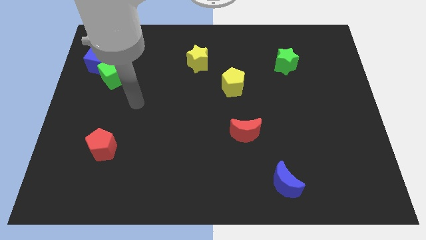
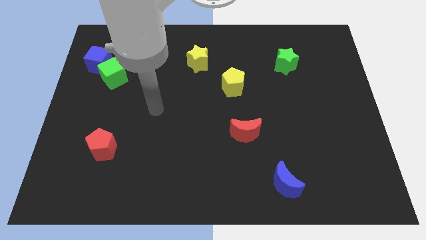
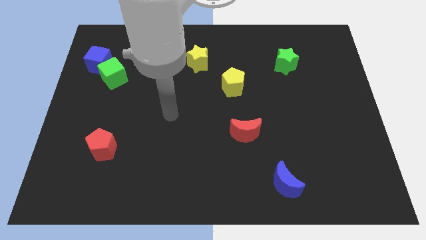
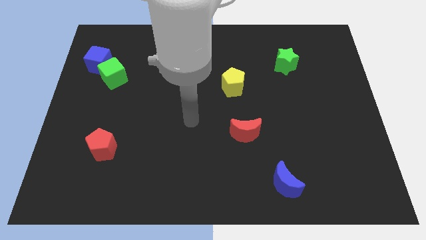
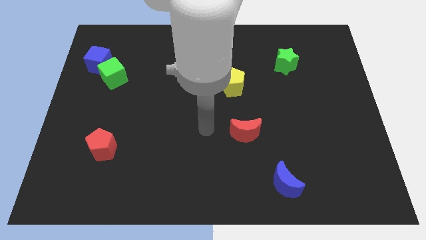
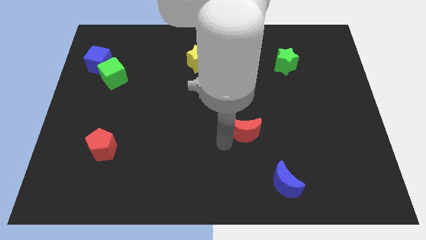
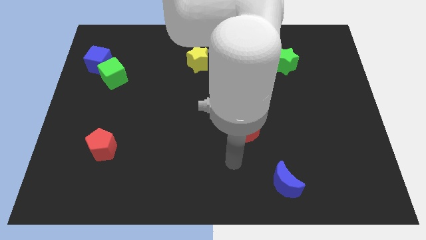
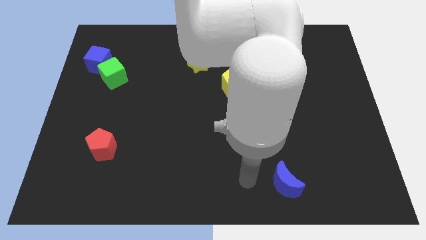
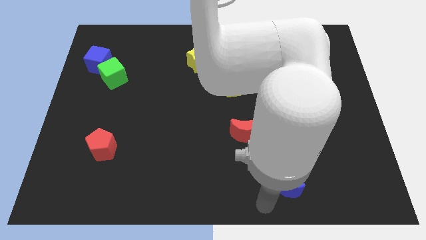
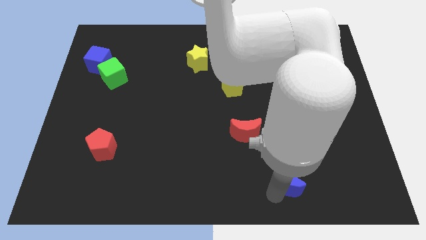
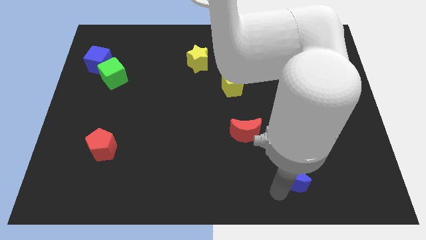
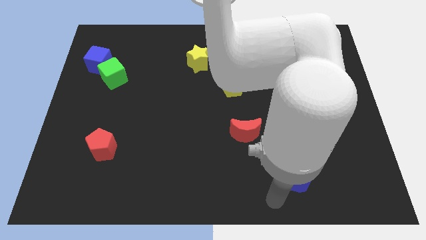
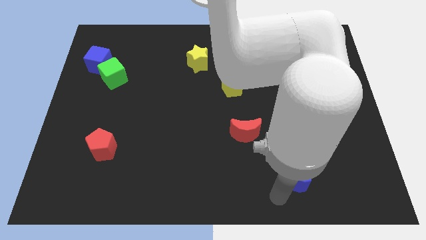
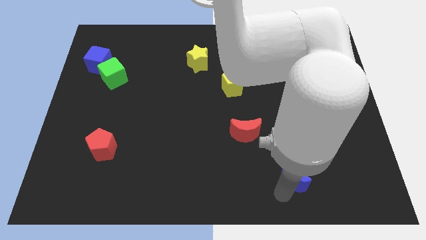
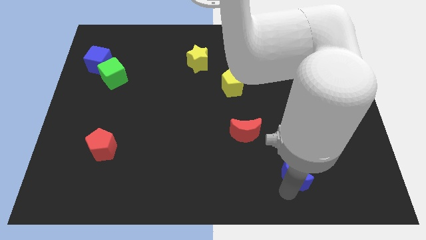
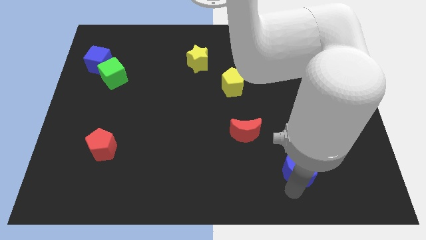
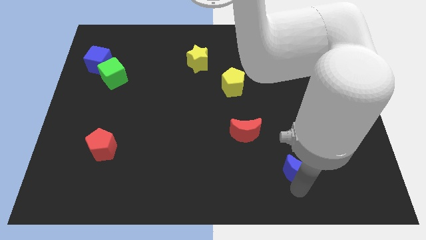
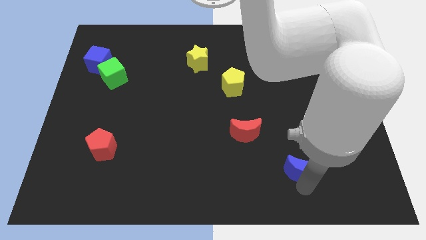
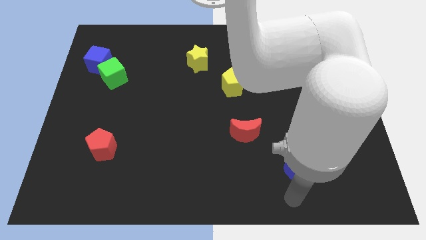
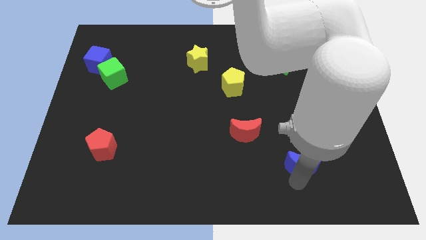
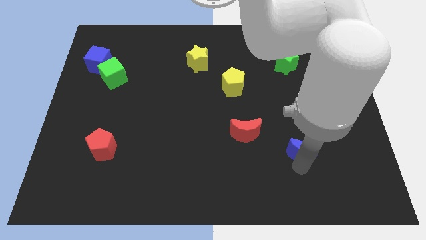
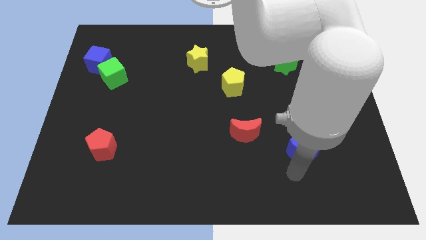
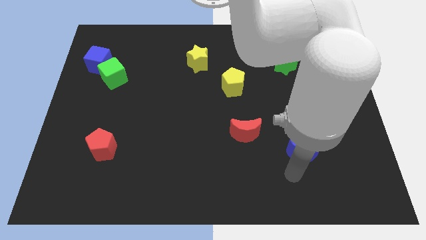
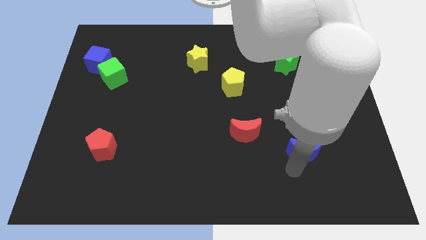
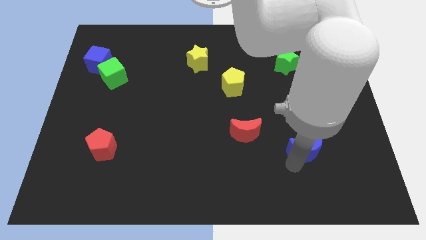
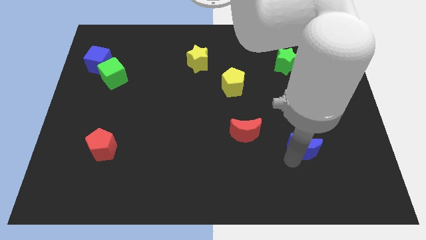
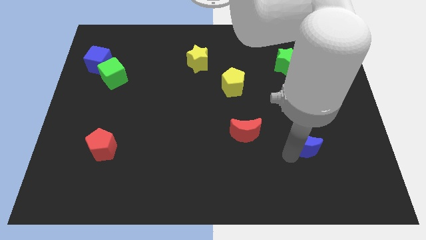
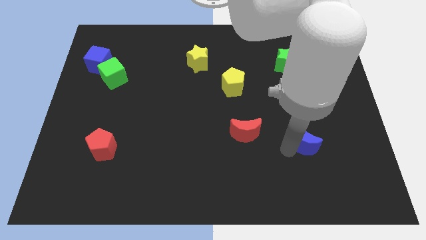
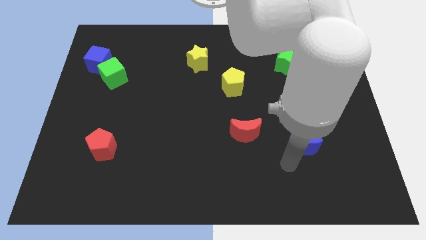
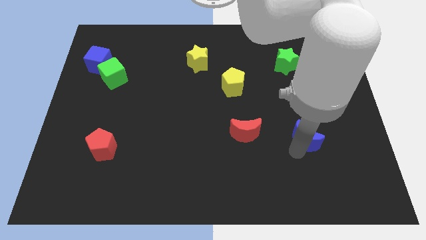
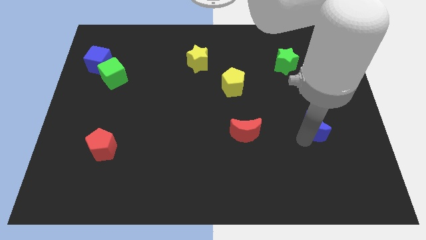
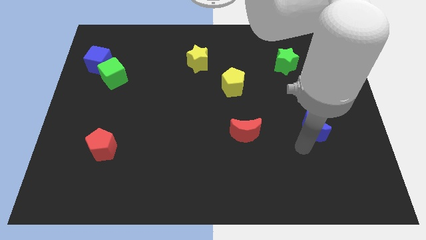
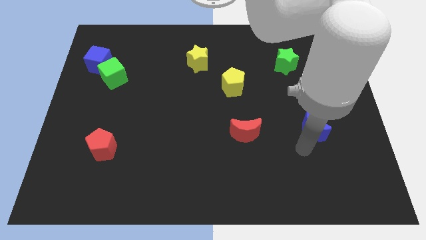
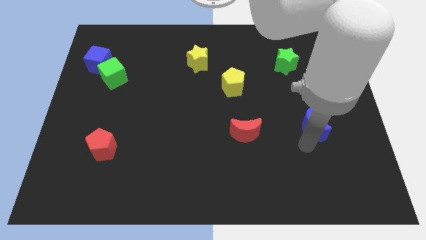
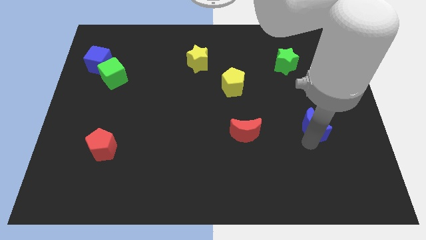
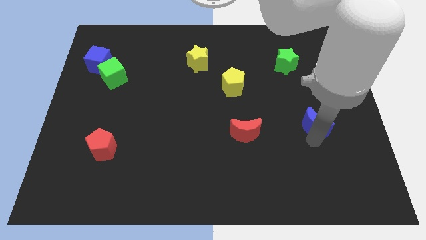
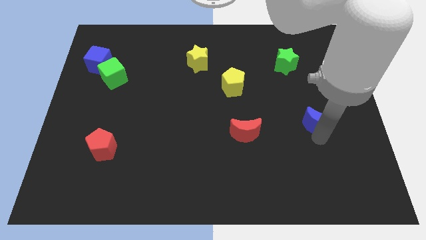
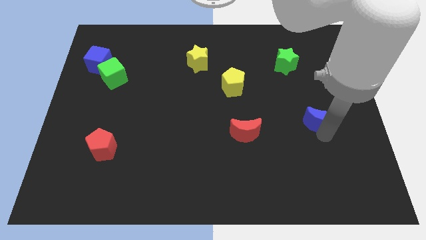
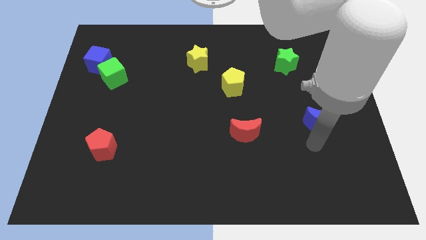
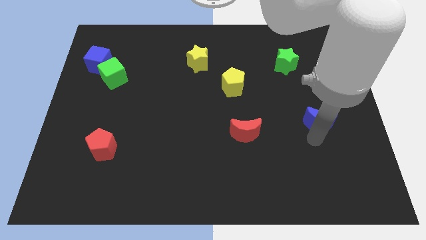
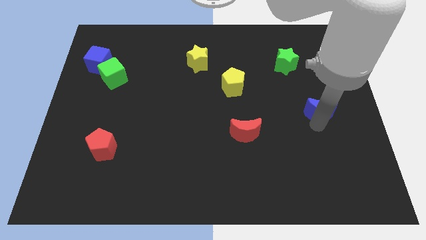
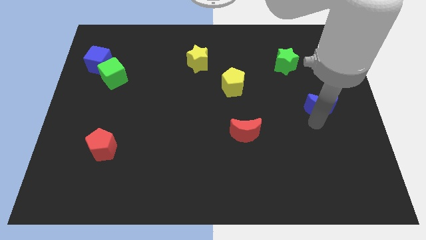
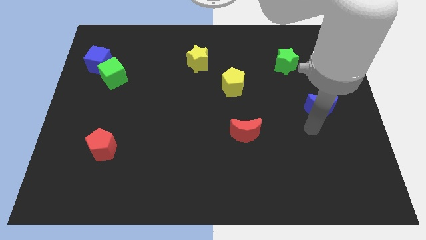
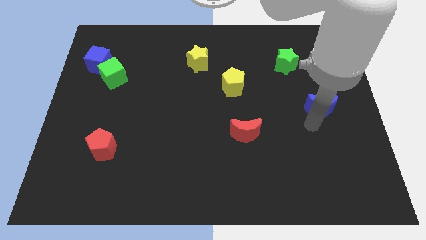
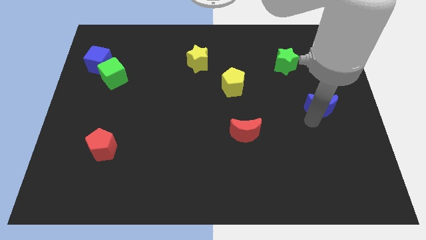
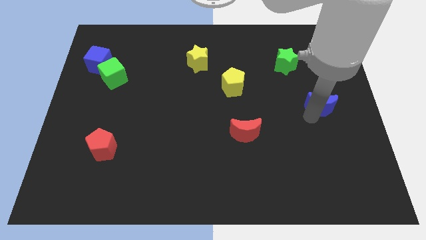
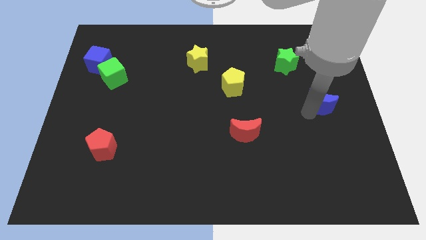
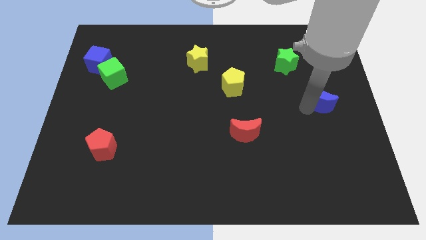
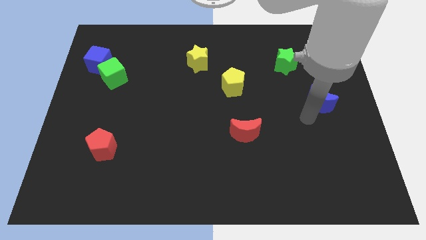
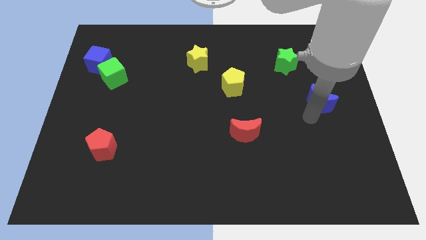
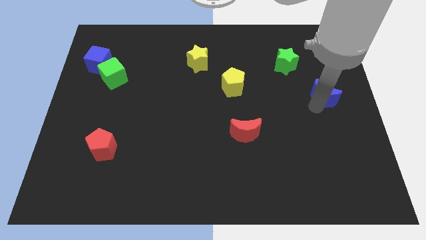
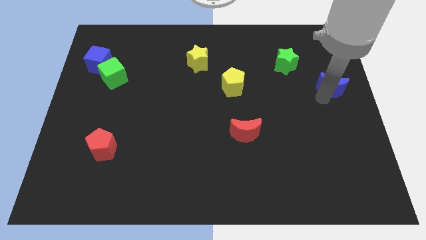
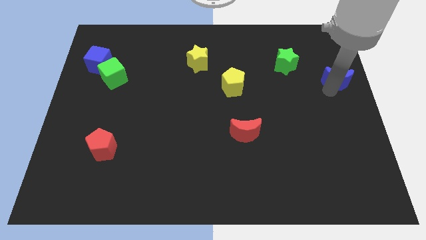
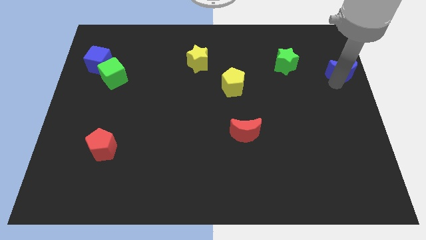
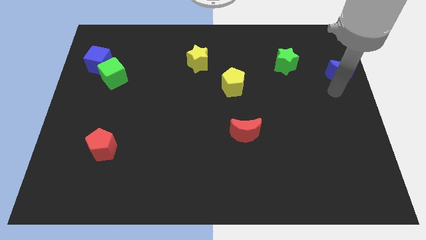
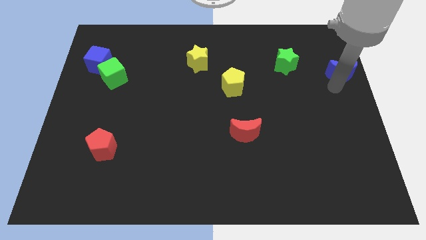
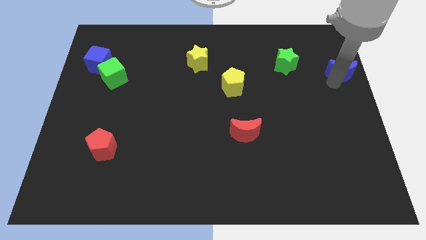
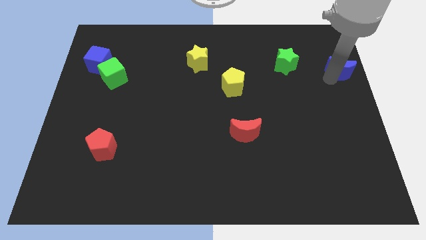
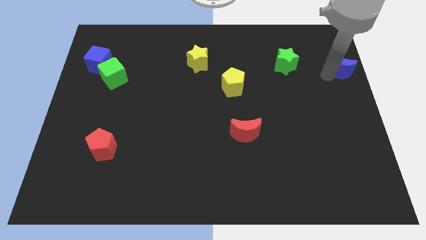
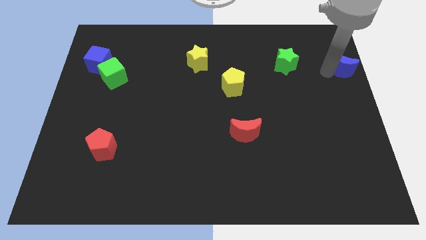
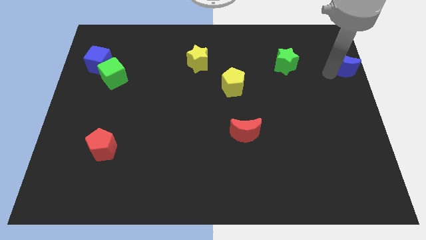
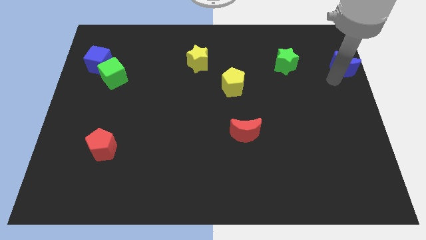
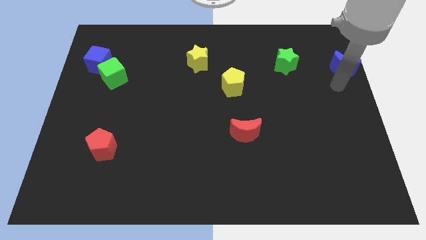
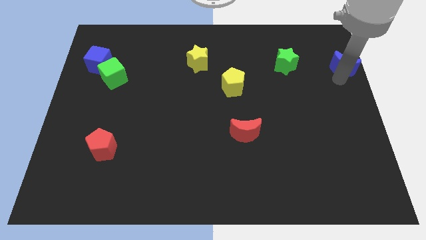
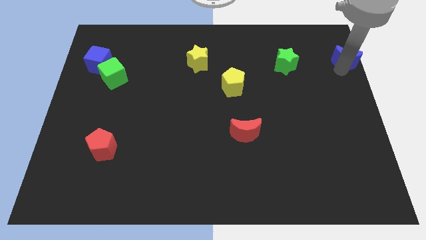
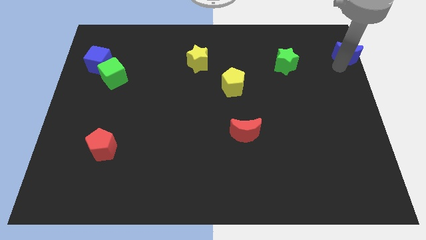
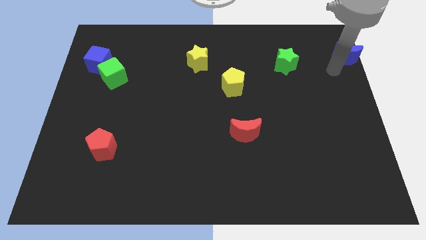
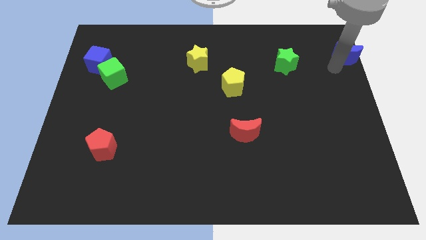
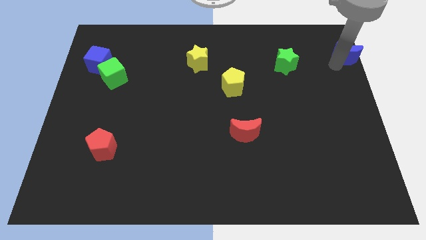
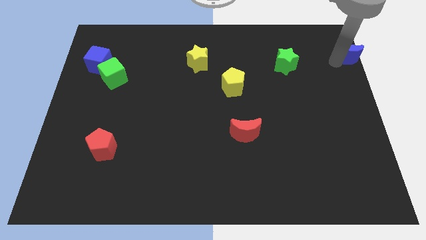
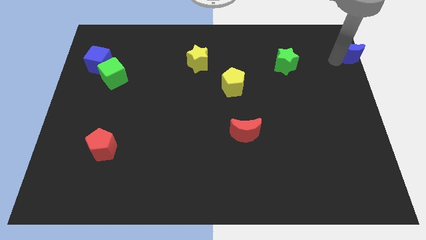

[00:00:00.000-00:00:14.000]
move the blue moon to the upper right corner
